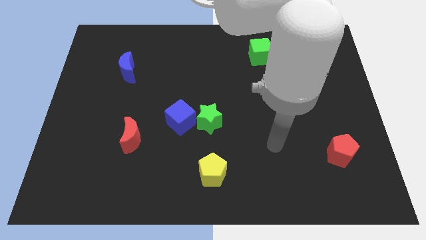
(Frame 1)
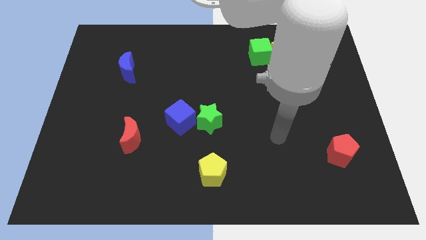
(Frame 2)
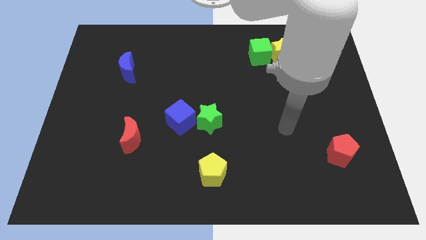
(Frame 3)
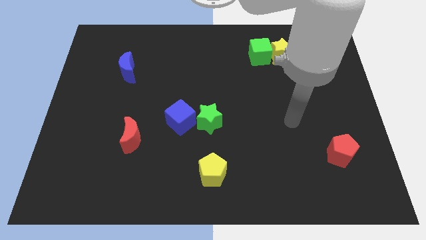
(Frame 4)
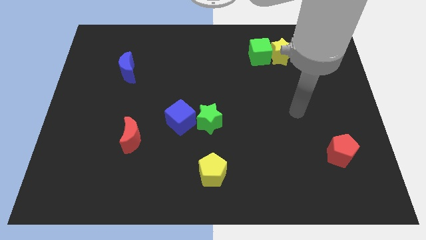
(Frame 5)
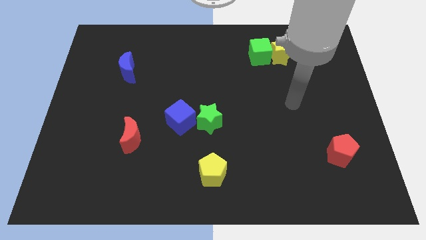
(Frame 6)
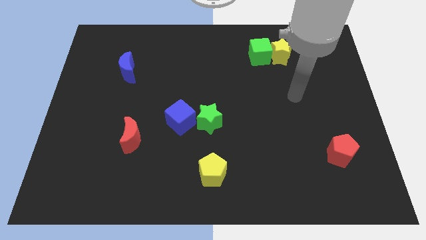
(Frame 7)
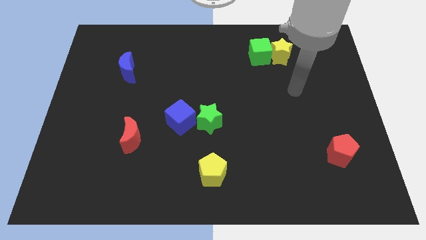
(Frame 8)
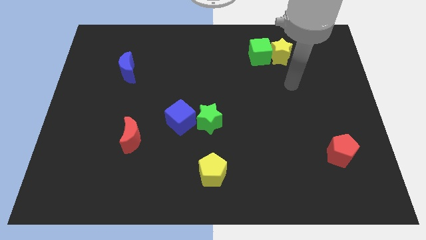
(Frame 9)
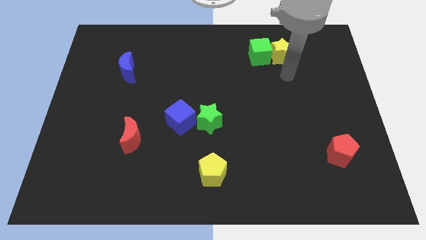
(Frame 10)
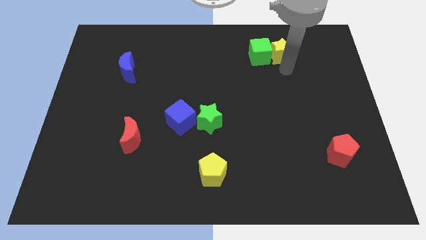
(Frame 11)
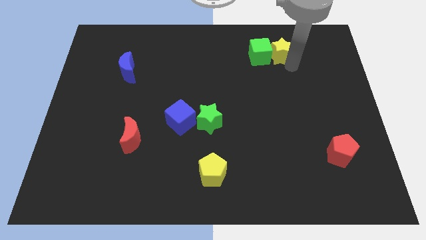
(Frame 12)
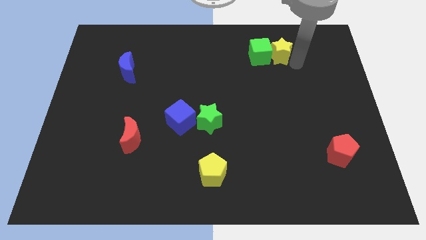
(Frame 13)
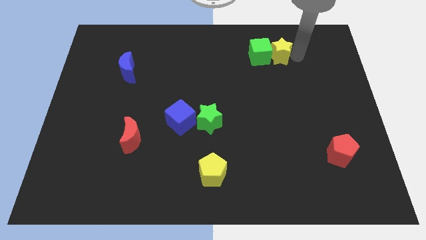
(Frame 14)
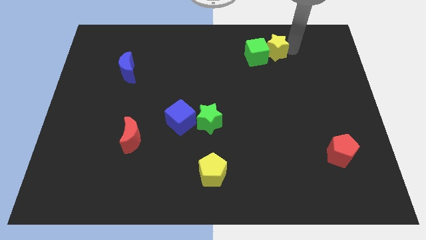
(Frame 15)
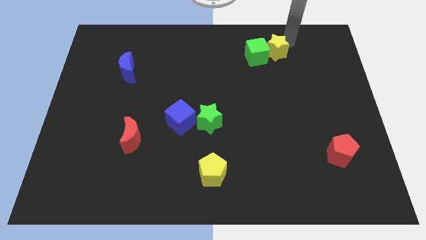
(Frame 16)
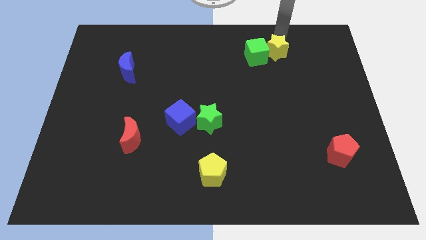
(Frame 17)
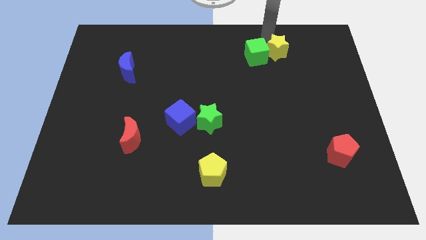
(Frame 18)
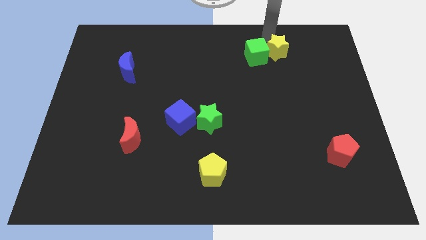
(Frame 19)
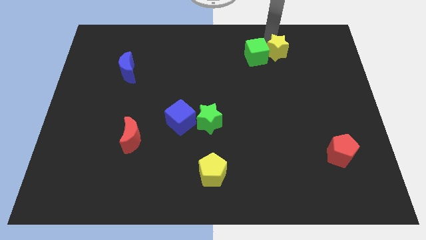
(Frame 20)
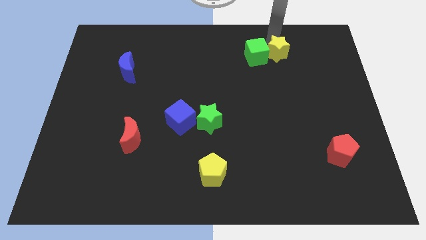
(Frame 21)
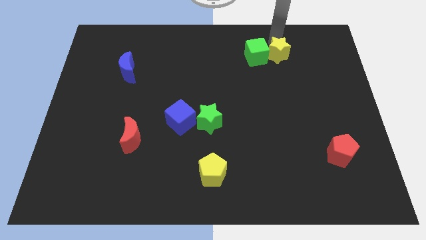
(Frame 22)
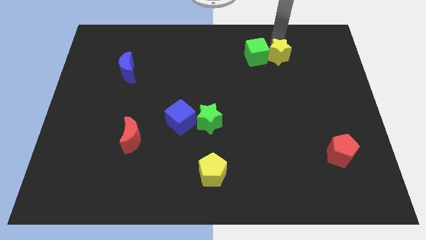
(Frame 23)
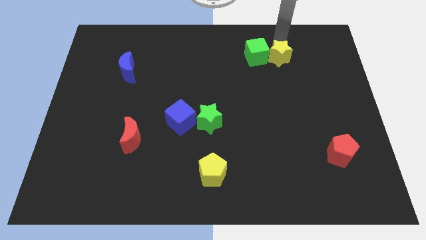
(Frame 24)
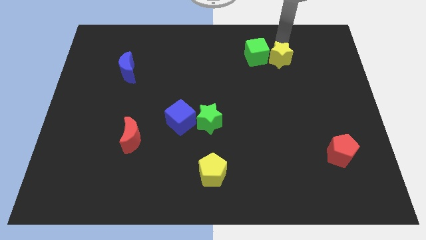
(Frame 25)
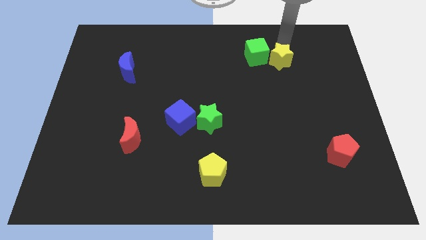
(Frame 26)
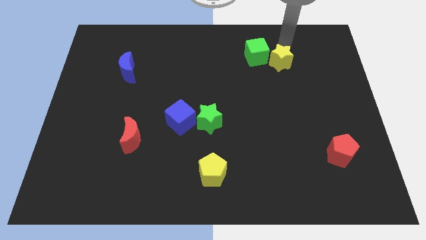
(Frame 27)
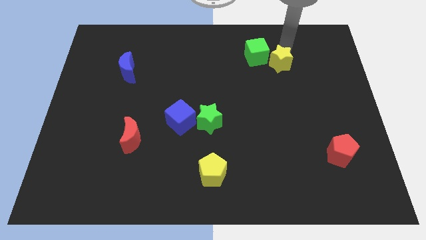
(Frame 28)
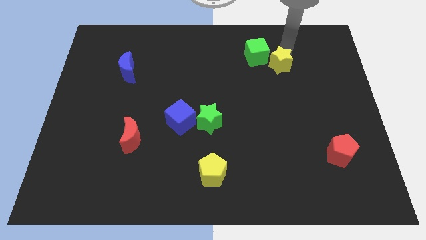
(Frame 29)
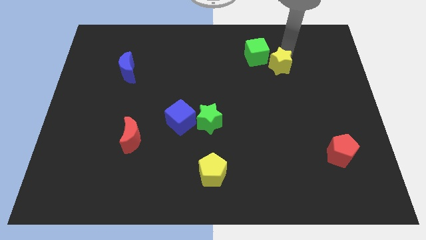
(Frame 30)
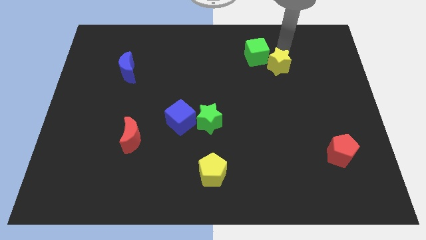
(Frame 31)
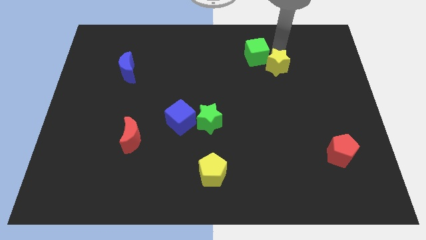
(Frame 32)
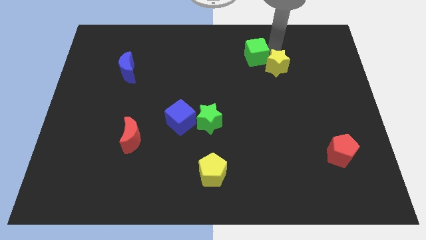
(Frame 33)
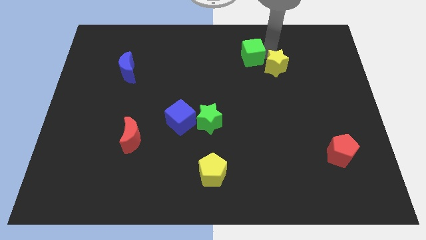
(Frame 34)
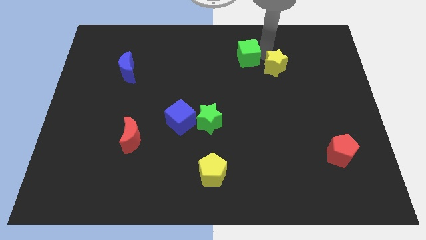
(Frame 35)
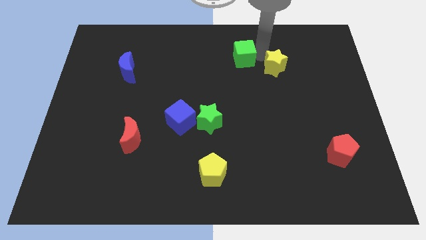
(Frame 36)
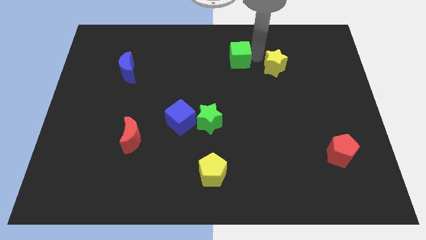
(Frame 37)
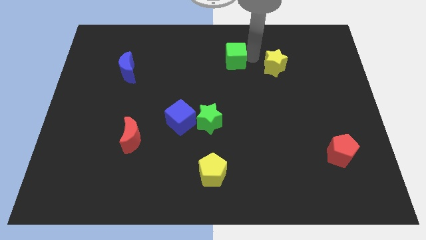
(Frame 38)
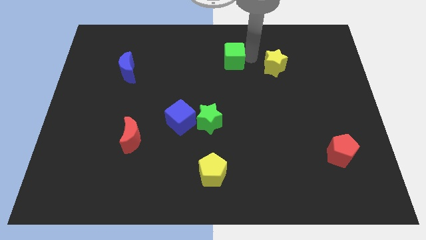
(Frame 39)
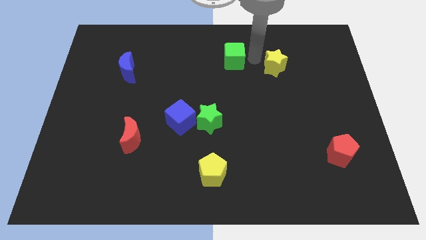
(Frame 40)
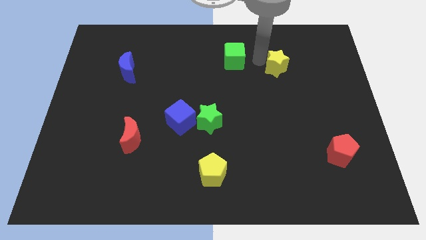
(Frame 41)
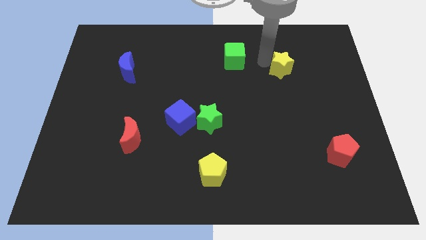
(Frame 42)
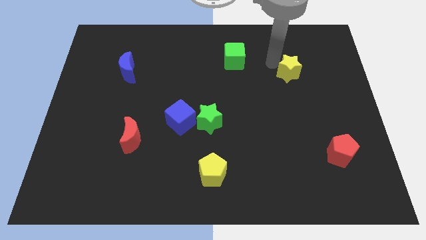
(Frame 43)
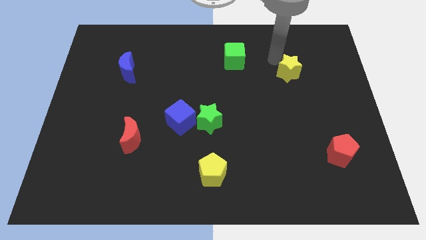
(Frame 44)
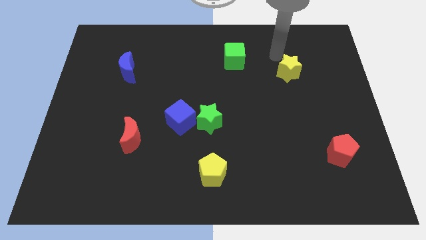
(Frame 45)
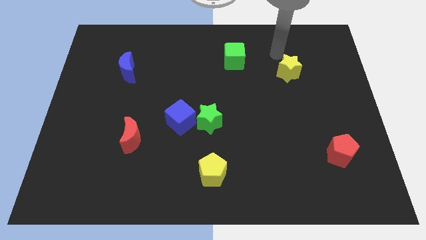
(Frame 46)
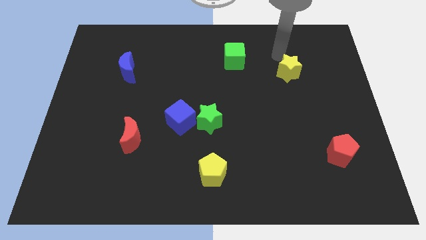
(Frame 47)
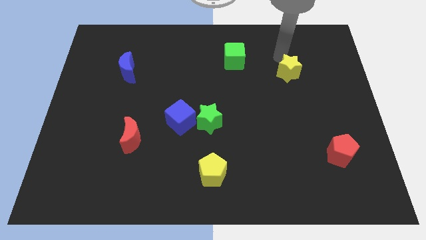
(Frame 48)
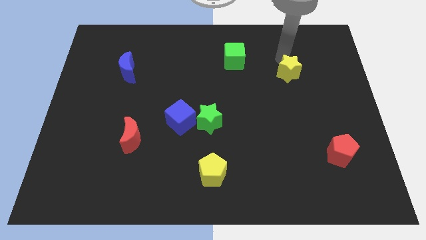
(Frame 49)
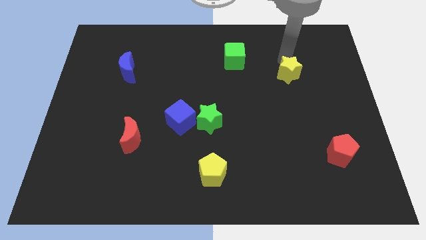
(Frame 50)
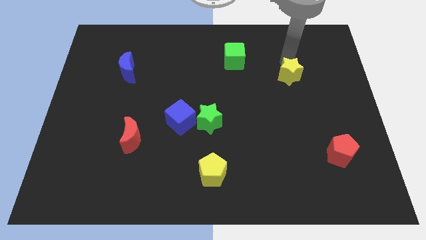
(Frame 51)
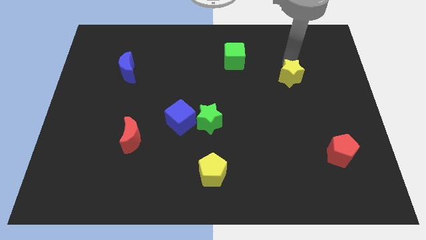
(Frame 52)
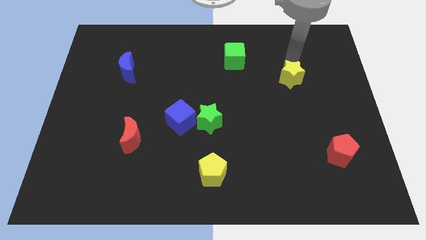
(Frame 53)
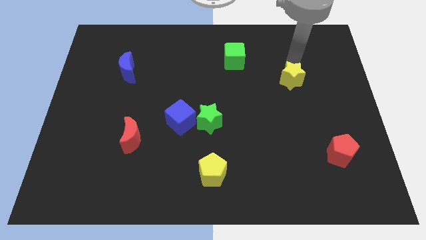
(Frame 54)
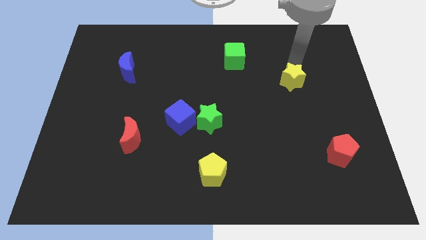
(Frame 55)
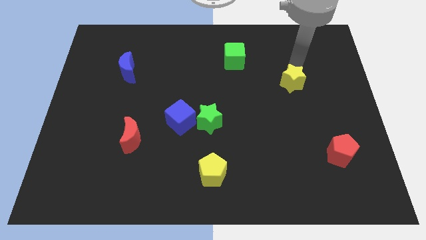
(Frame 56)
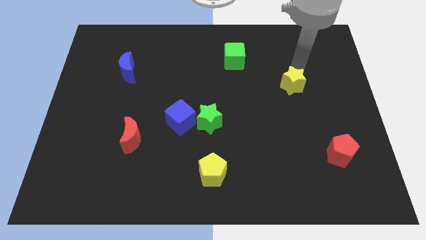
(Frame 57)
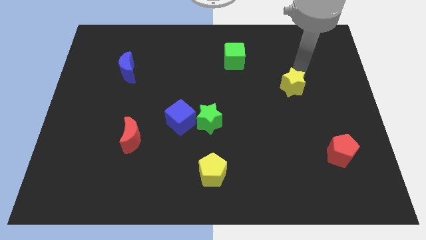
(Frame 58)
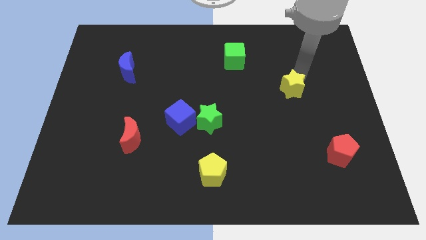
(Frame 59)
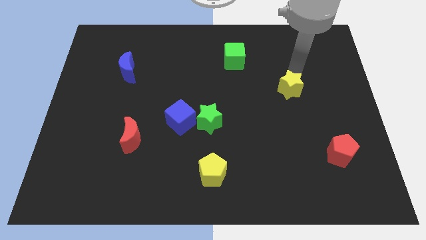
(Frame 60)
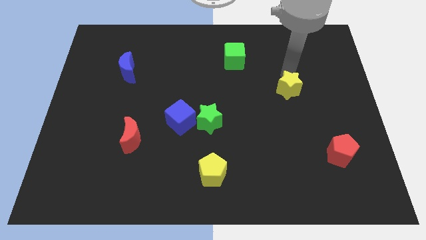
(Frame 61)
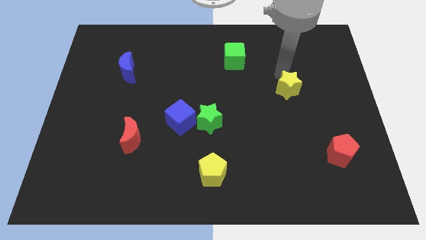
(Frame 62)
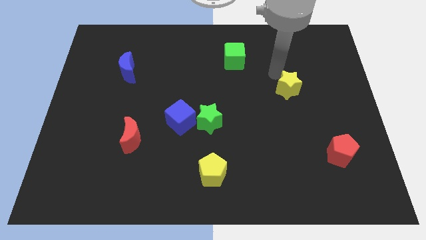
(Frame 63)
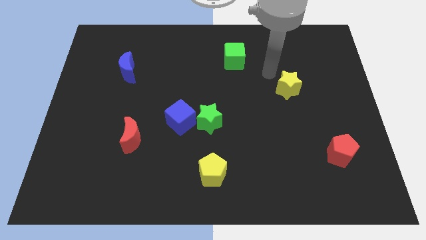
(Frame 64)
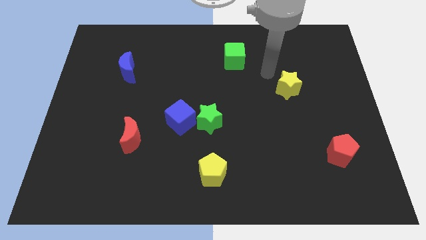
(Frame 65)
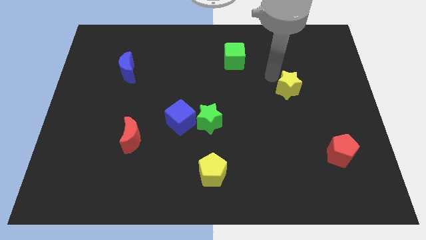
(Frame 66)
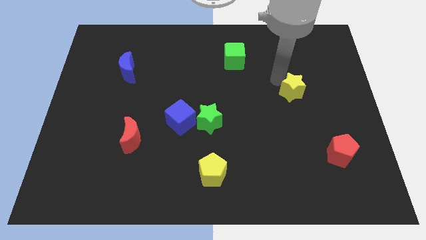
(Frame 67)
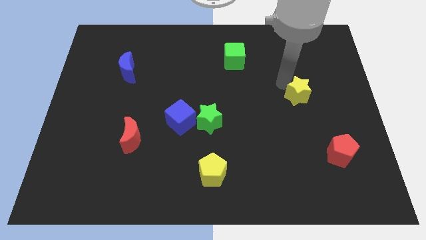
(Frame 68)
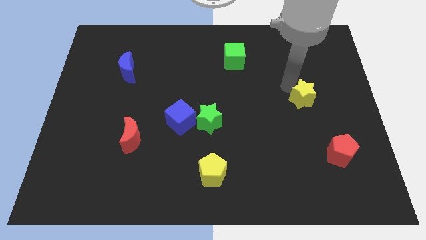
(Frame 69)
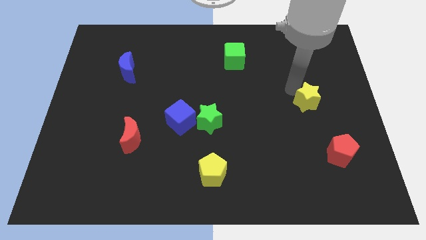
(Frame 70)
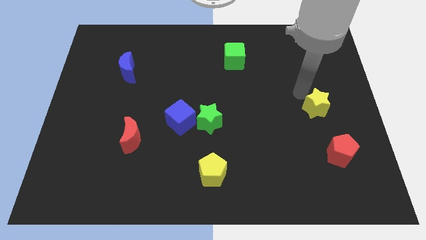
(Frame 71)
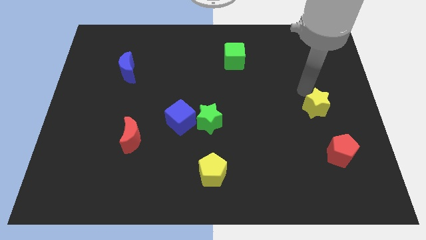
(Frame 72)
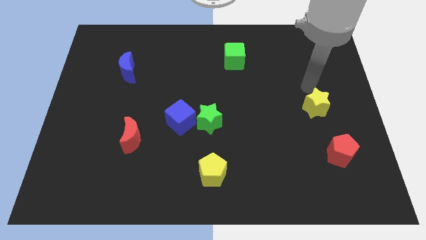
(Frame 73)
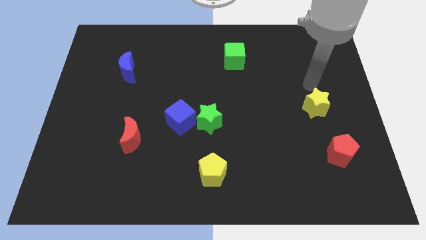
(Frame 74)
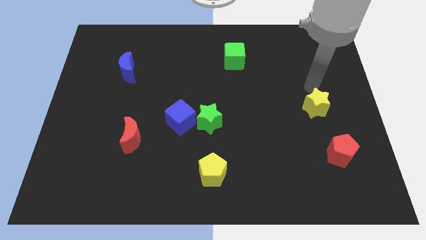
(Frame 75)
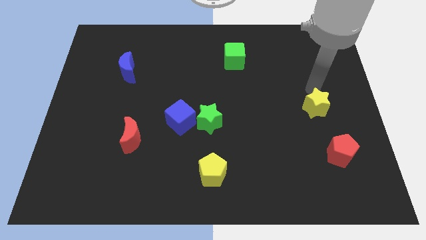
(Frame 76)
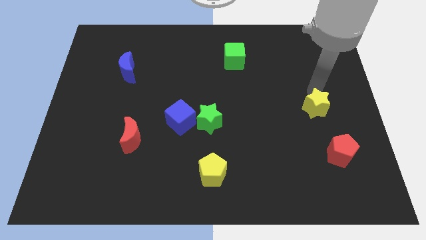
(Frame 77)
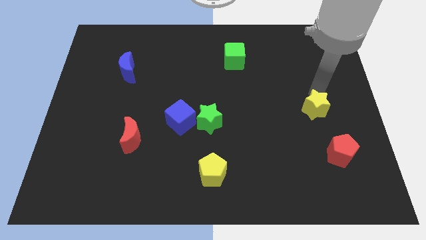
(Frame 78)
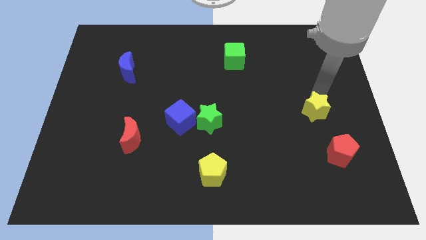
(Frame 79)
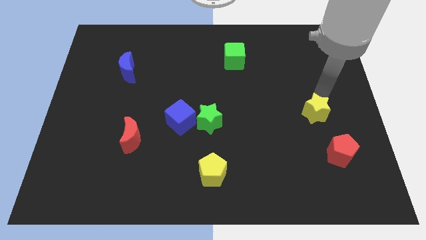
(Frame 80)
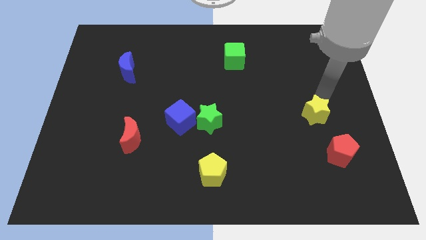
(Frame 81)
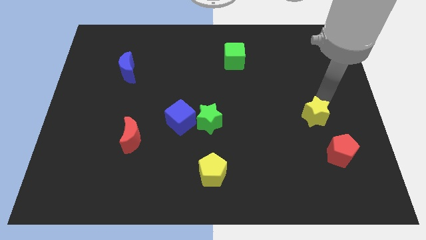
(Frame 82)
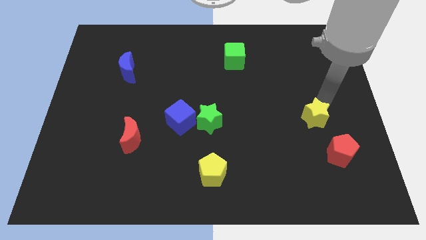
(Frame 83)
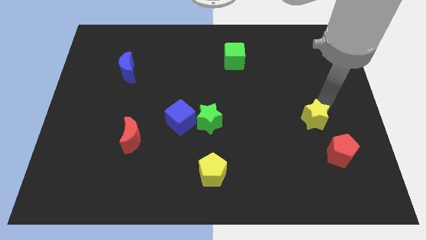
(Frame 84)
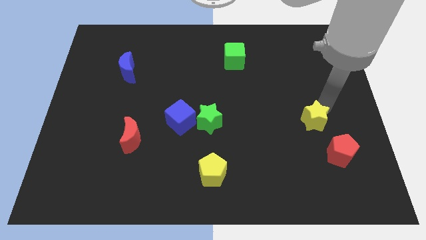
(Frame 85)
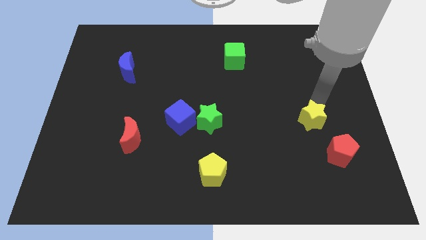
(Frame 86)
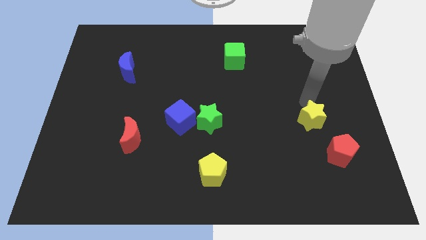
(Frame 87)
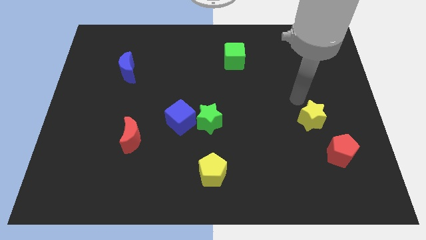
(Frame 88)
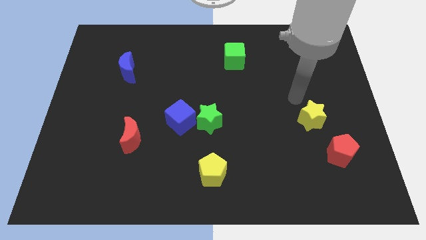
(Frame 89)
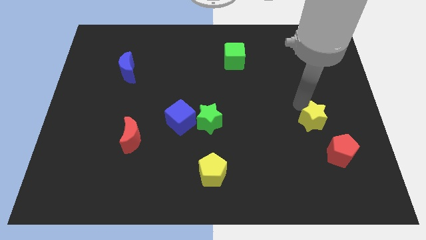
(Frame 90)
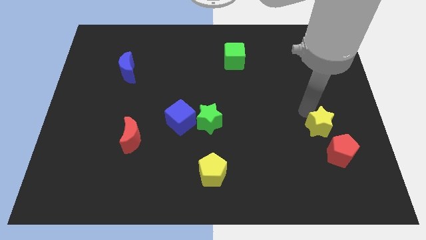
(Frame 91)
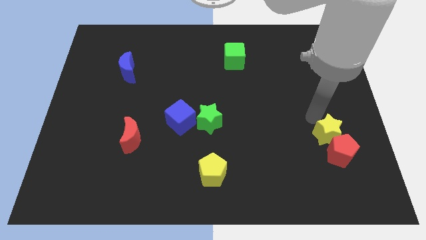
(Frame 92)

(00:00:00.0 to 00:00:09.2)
move the yellow star close to the red pentagon
